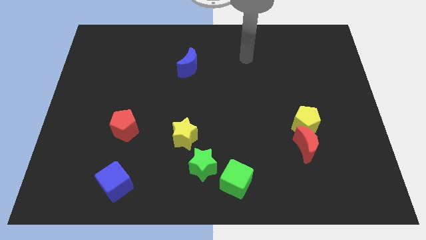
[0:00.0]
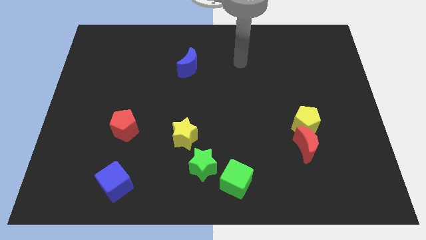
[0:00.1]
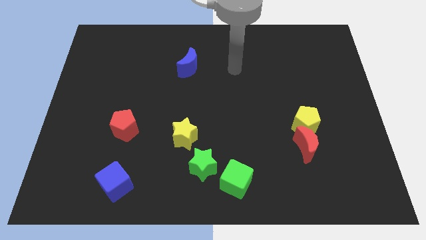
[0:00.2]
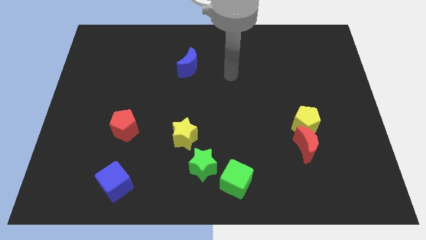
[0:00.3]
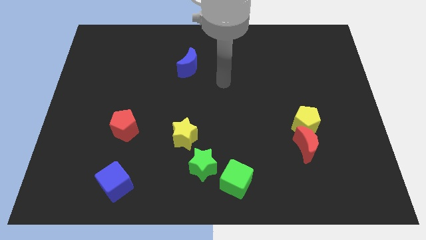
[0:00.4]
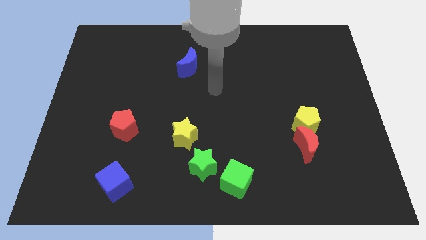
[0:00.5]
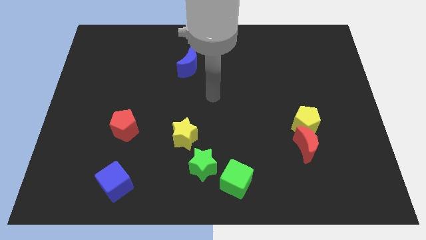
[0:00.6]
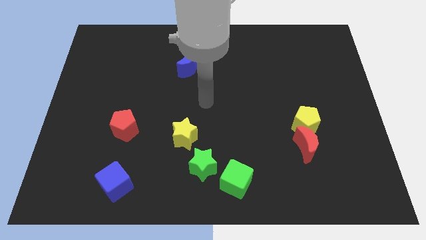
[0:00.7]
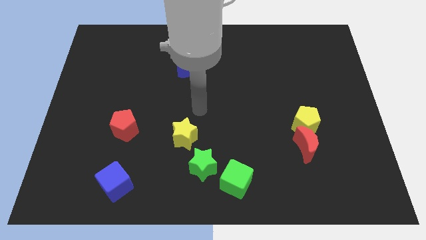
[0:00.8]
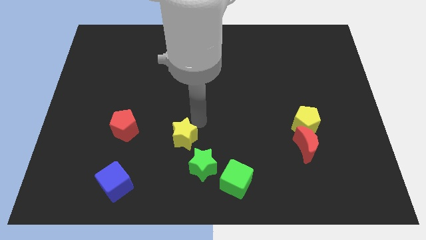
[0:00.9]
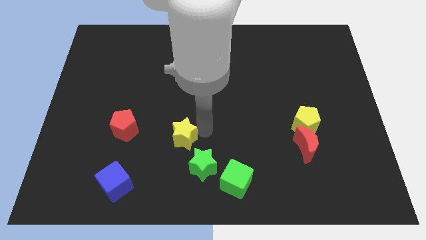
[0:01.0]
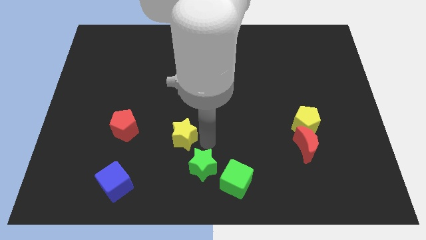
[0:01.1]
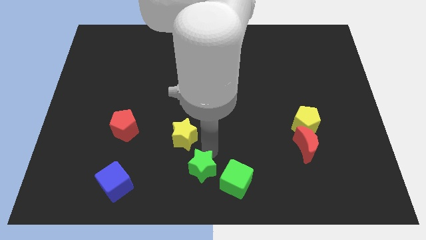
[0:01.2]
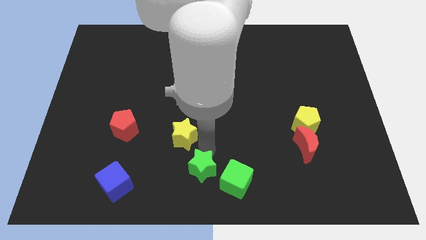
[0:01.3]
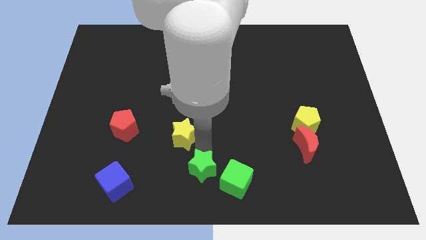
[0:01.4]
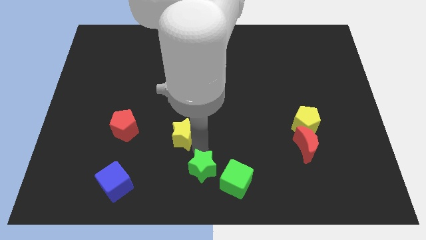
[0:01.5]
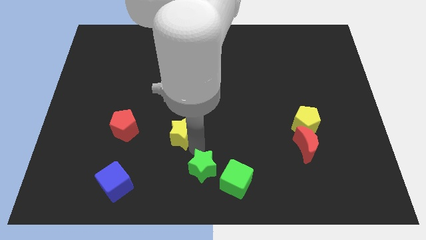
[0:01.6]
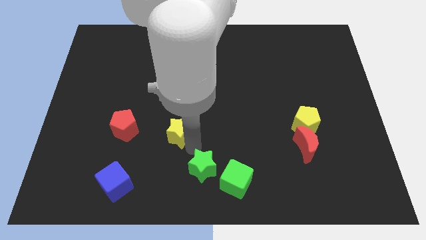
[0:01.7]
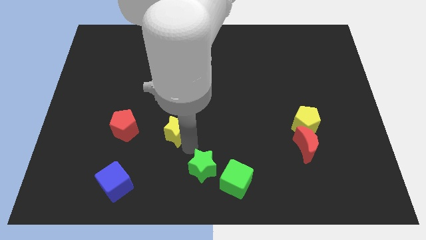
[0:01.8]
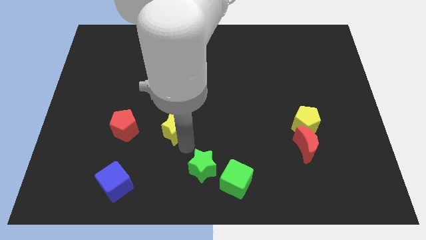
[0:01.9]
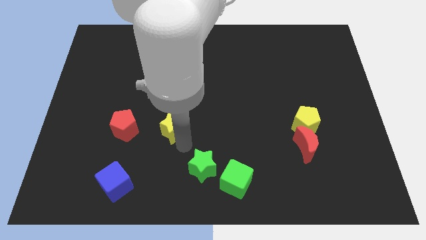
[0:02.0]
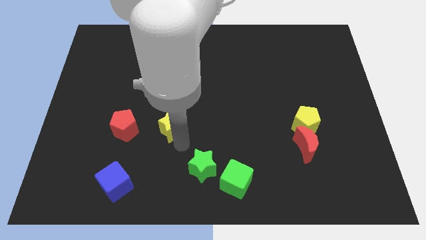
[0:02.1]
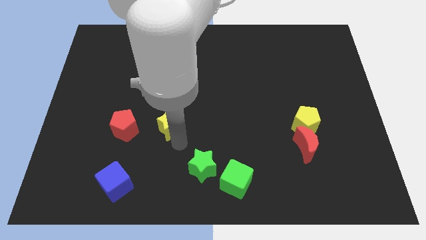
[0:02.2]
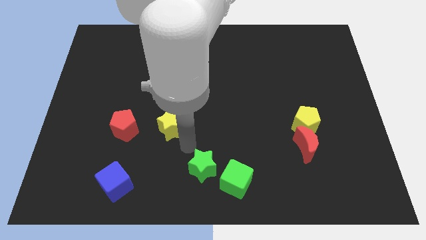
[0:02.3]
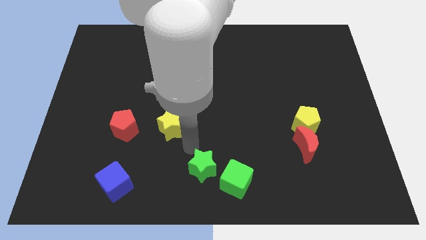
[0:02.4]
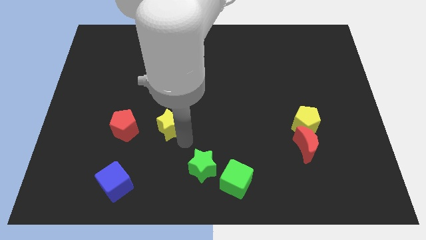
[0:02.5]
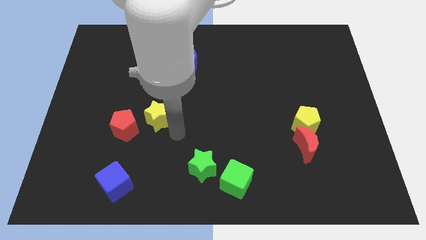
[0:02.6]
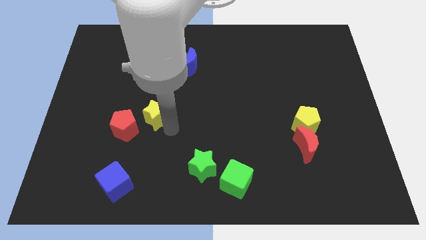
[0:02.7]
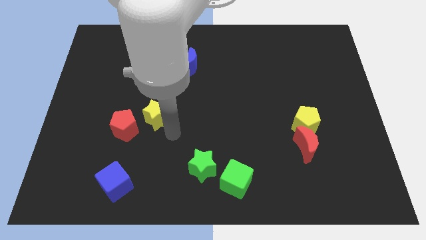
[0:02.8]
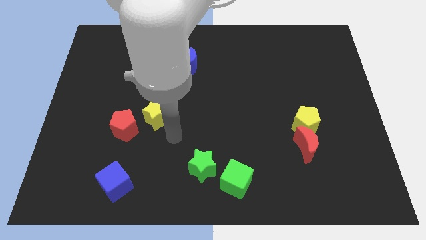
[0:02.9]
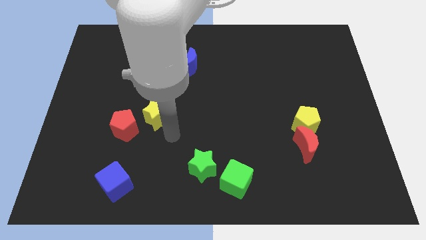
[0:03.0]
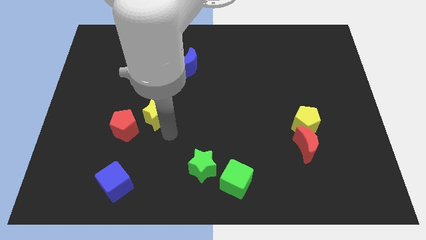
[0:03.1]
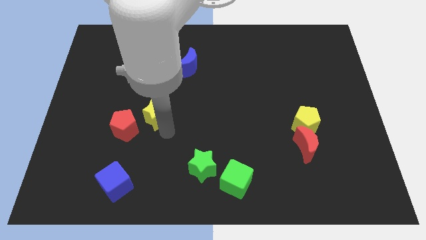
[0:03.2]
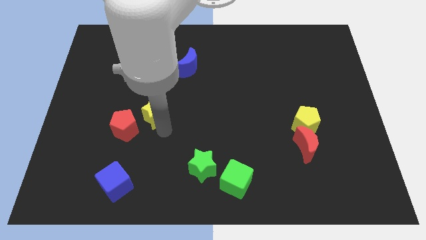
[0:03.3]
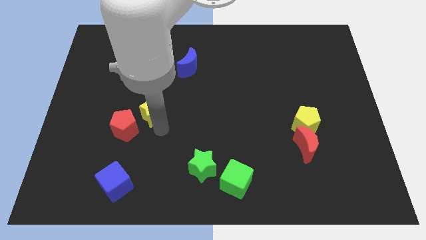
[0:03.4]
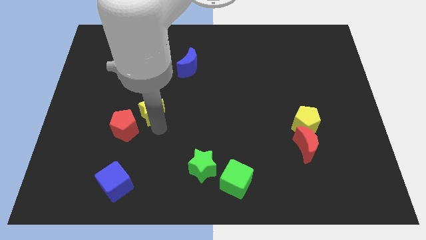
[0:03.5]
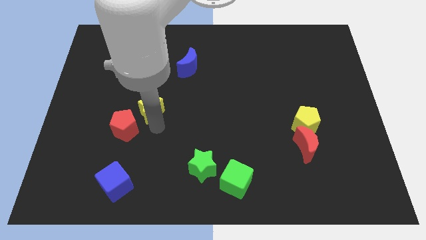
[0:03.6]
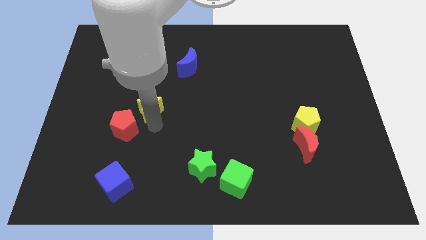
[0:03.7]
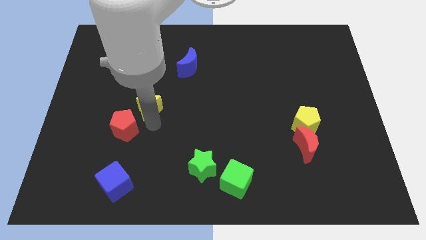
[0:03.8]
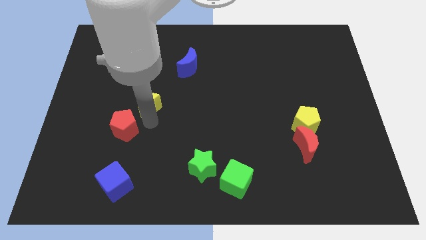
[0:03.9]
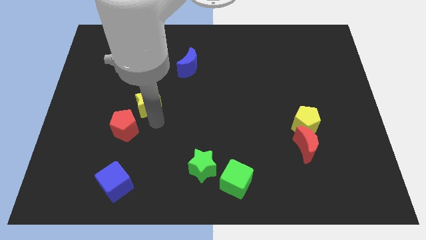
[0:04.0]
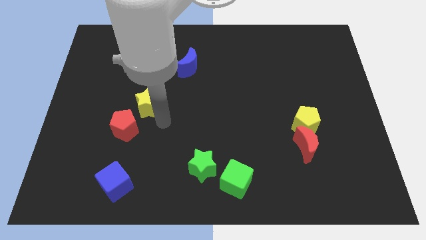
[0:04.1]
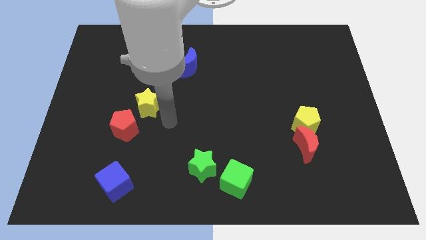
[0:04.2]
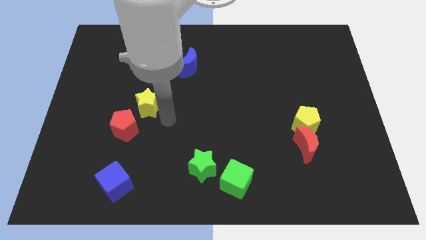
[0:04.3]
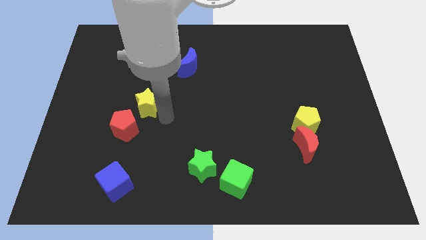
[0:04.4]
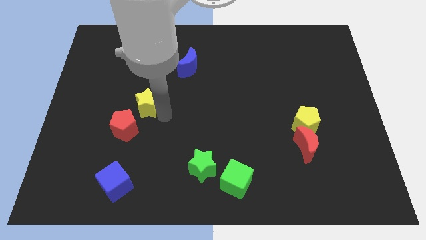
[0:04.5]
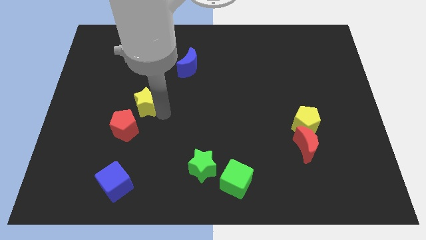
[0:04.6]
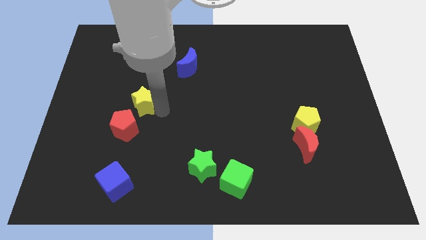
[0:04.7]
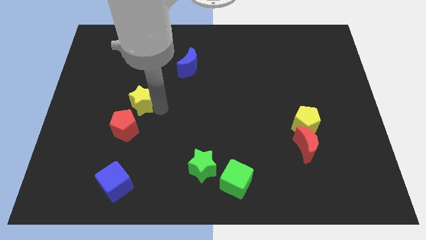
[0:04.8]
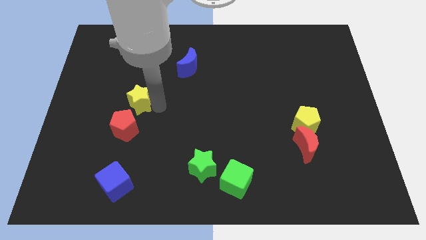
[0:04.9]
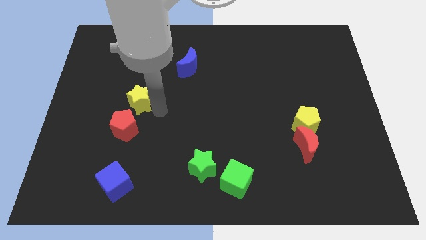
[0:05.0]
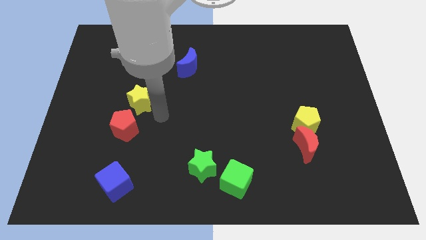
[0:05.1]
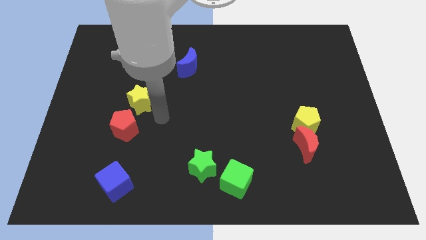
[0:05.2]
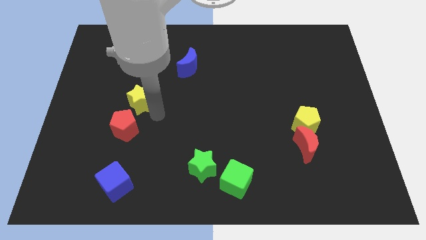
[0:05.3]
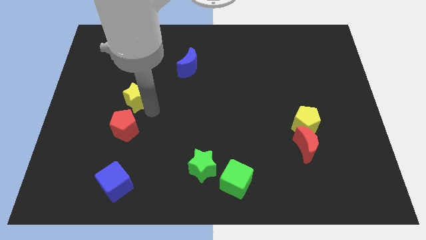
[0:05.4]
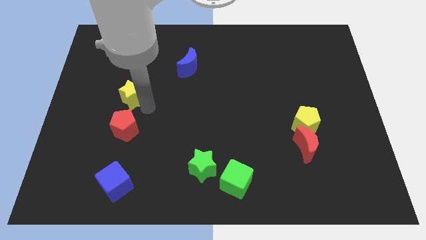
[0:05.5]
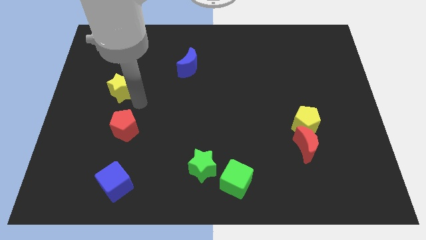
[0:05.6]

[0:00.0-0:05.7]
push the yellow star upwards and to the left diagonally

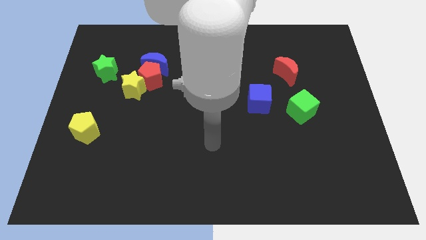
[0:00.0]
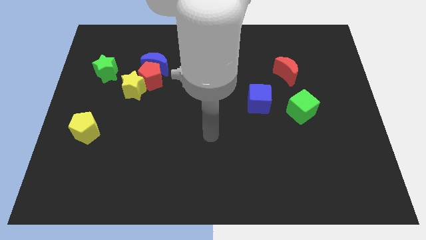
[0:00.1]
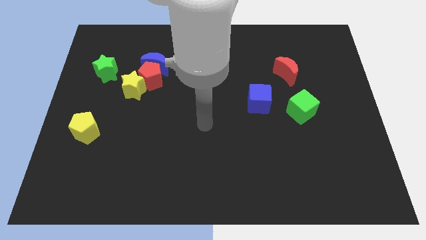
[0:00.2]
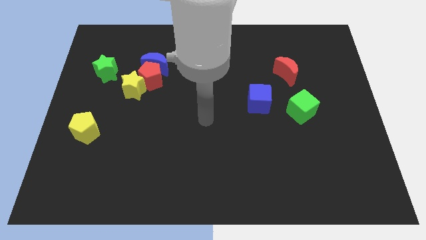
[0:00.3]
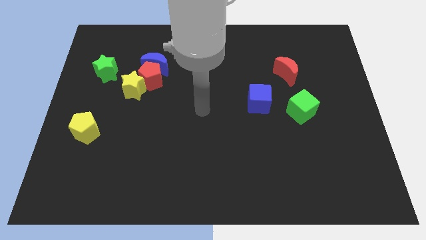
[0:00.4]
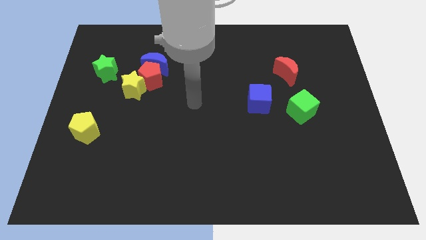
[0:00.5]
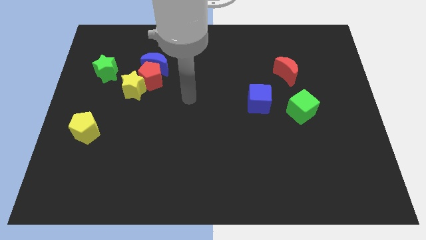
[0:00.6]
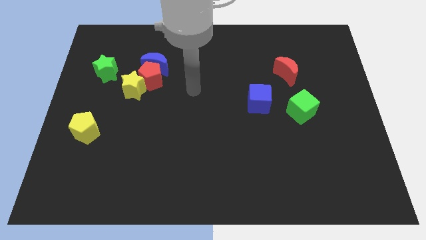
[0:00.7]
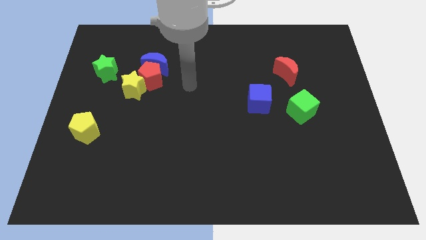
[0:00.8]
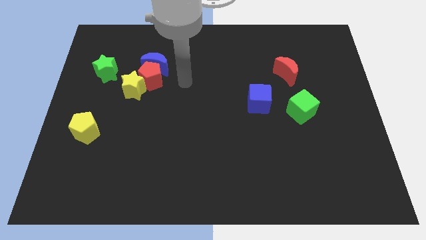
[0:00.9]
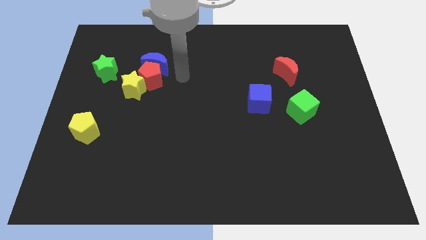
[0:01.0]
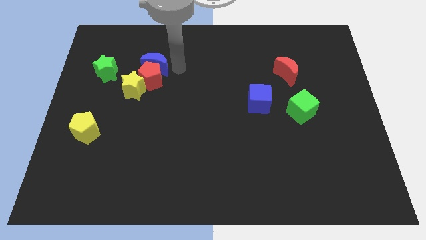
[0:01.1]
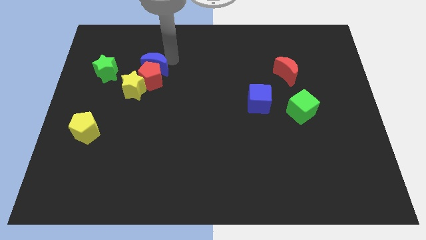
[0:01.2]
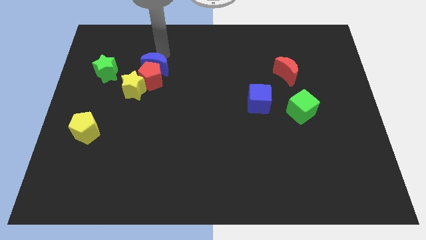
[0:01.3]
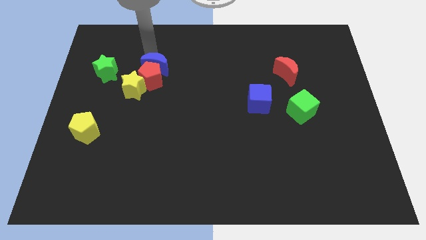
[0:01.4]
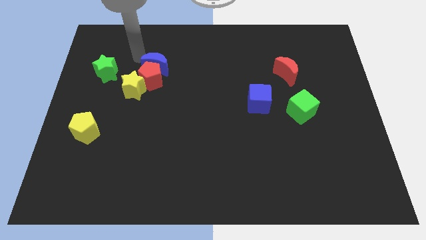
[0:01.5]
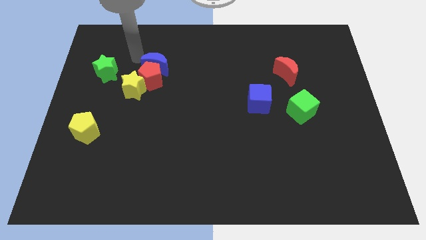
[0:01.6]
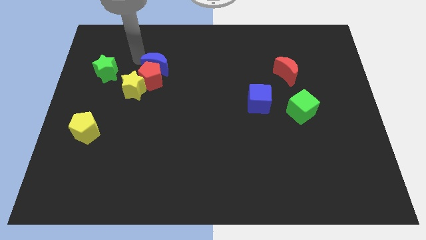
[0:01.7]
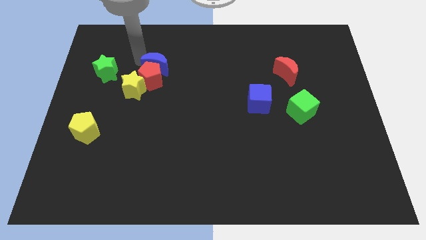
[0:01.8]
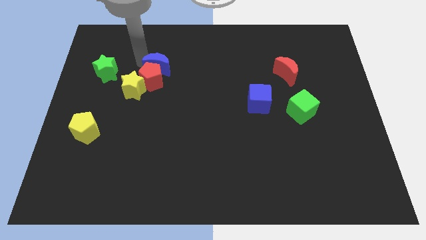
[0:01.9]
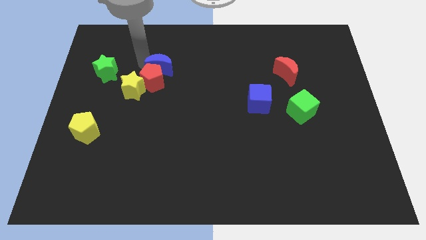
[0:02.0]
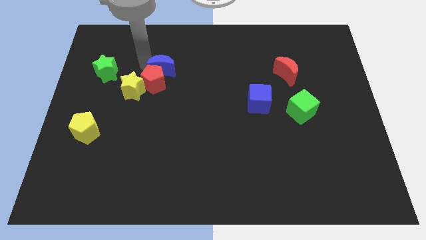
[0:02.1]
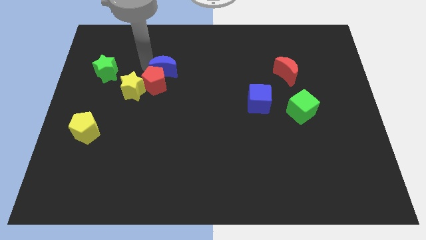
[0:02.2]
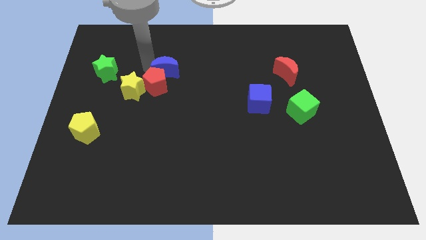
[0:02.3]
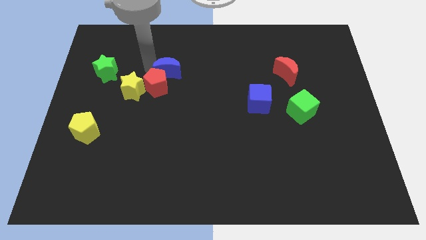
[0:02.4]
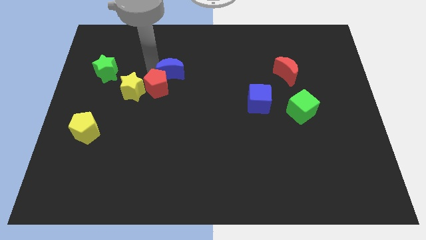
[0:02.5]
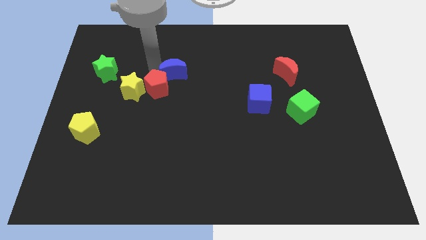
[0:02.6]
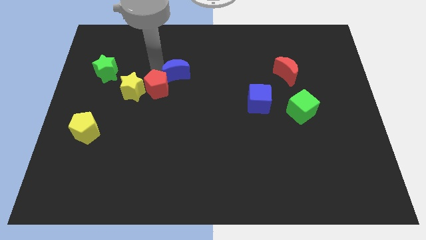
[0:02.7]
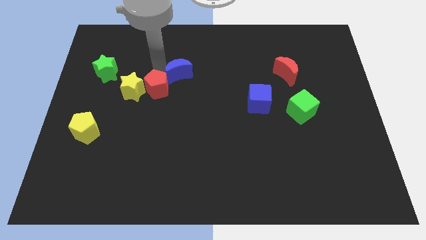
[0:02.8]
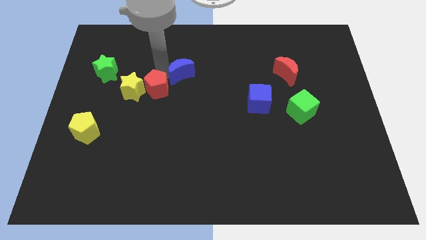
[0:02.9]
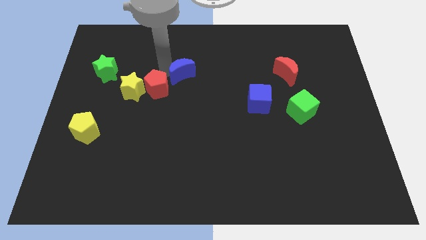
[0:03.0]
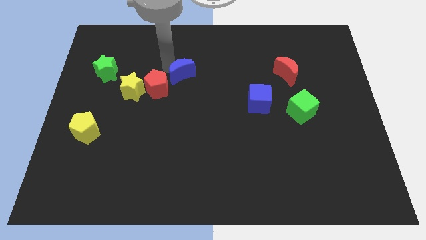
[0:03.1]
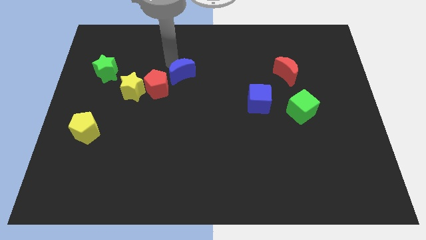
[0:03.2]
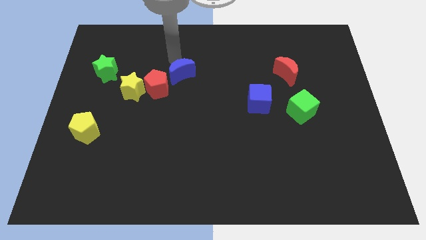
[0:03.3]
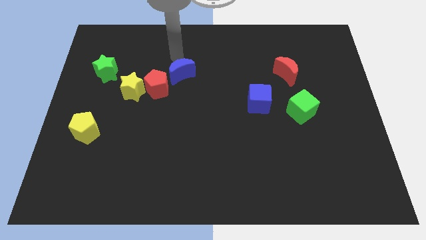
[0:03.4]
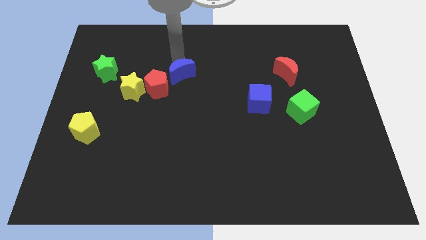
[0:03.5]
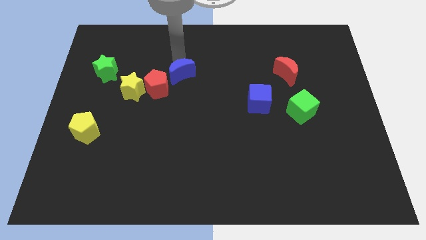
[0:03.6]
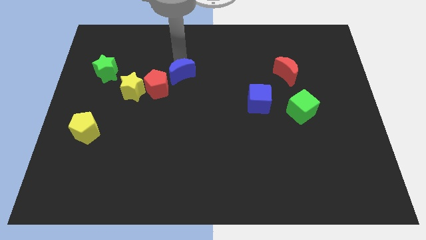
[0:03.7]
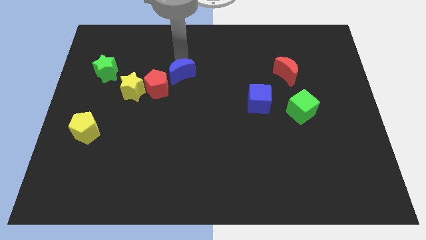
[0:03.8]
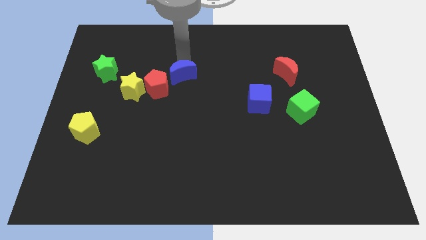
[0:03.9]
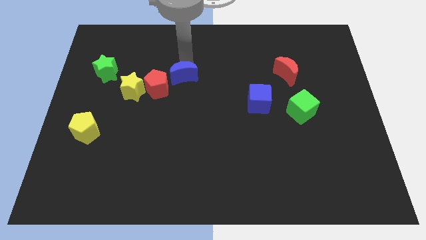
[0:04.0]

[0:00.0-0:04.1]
move the blue moon somewhat down and then right
